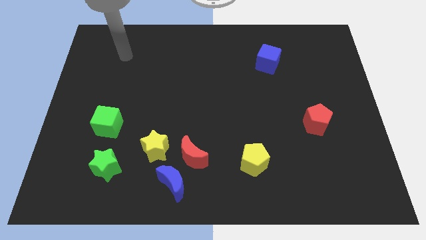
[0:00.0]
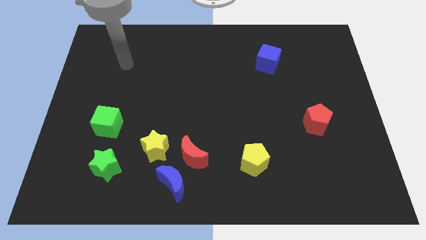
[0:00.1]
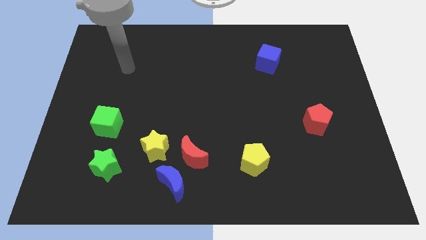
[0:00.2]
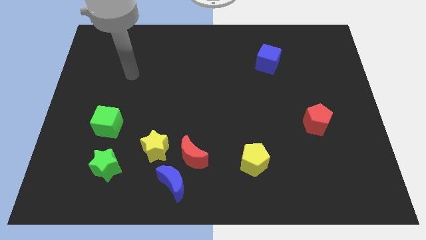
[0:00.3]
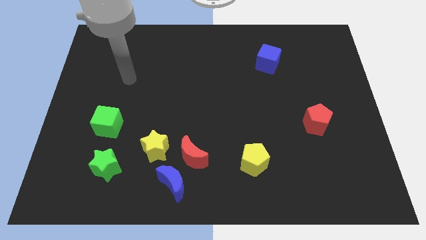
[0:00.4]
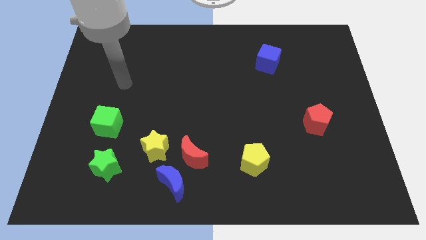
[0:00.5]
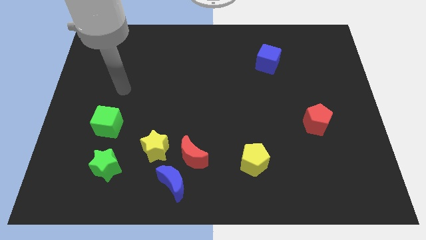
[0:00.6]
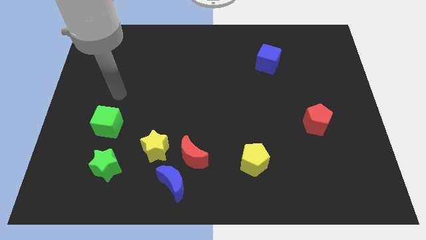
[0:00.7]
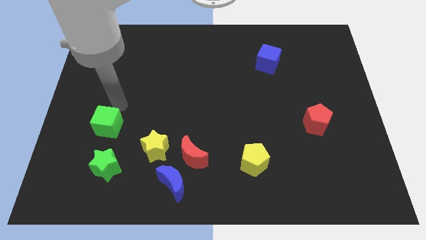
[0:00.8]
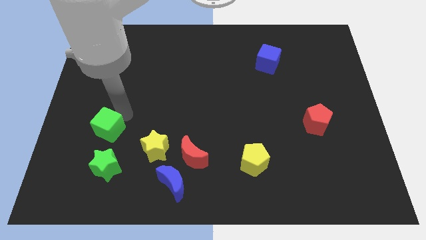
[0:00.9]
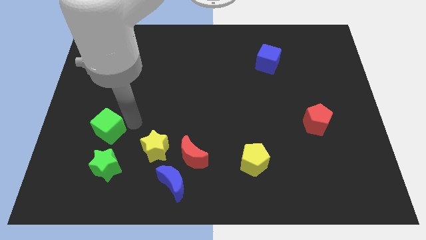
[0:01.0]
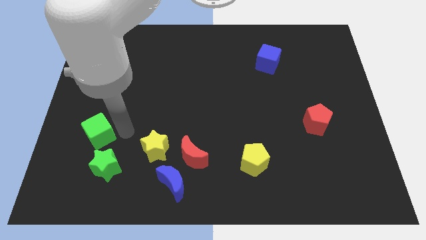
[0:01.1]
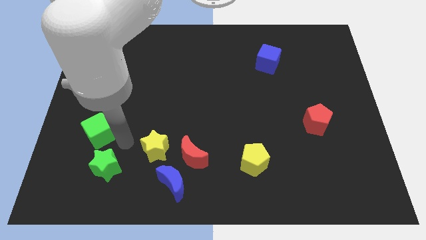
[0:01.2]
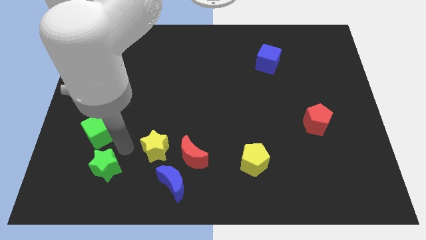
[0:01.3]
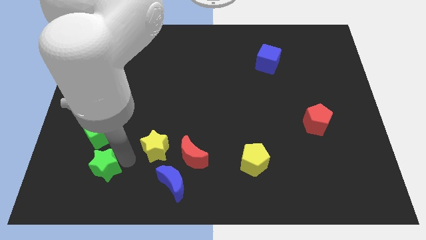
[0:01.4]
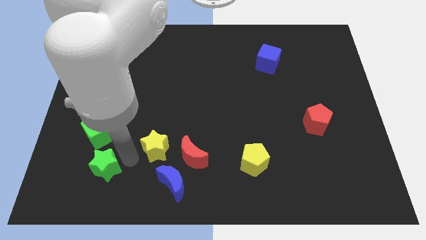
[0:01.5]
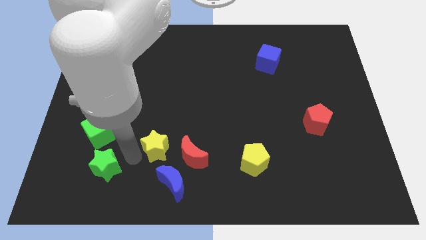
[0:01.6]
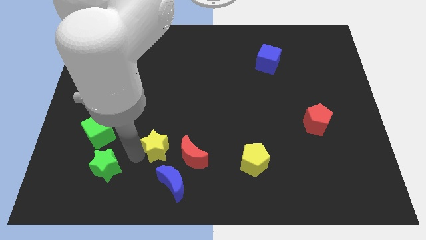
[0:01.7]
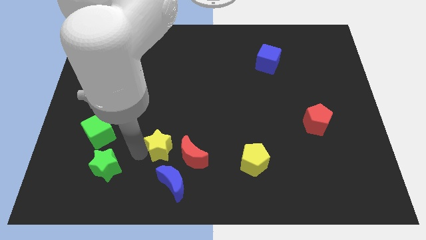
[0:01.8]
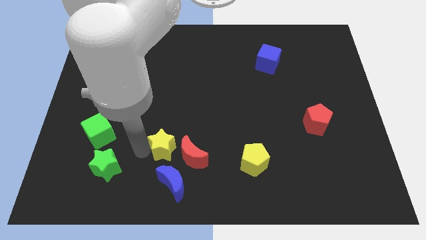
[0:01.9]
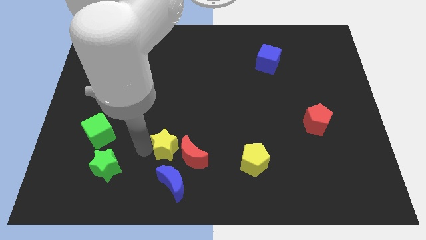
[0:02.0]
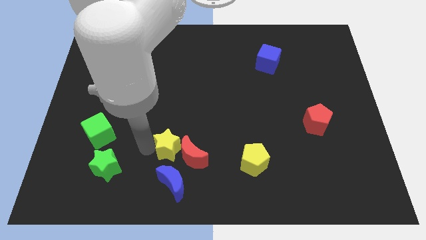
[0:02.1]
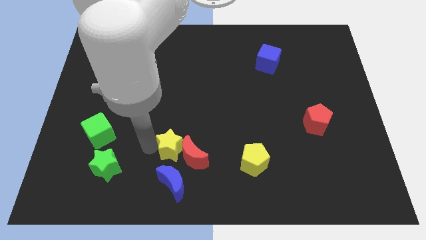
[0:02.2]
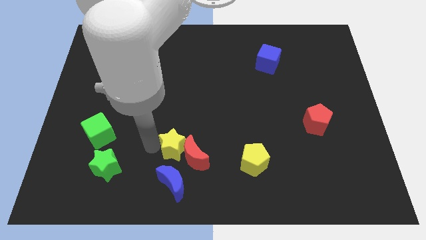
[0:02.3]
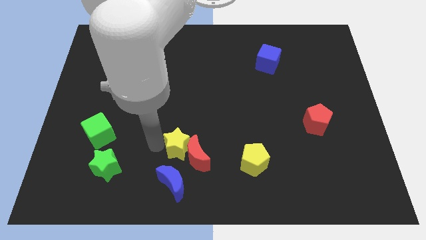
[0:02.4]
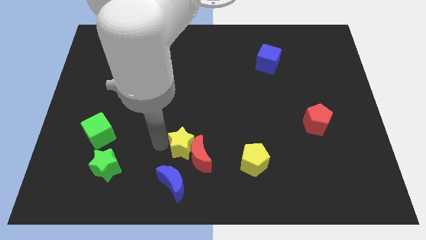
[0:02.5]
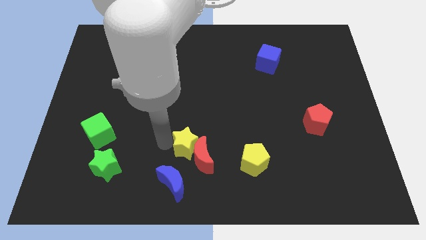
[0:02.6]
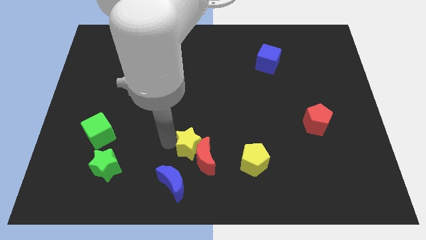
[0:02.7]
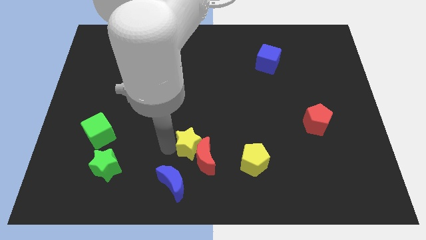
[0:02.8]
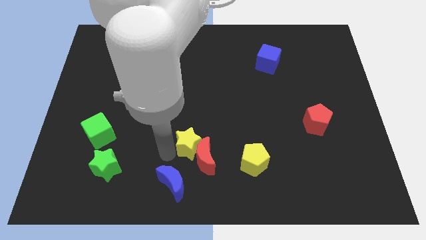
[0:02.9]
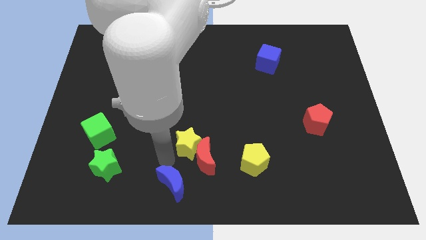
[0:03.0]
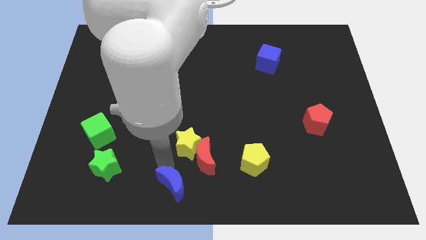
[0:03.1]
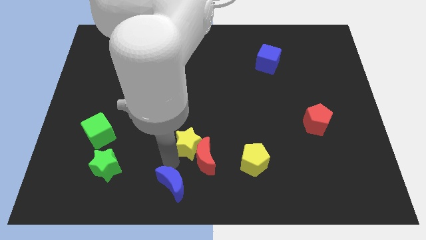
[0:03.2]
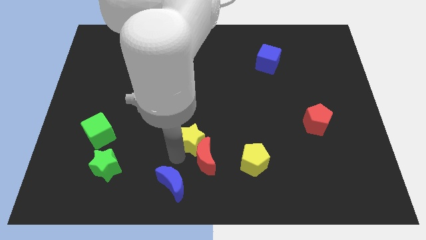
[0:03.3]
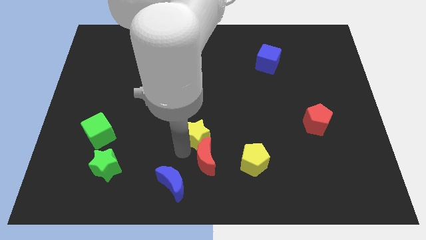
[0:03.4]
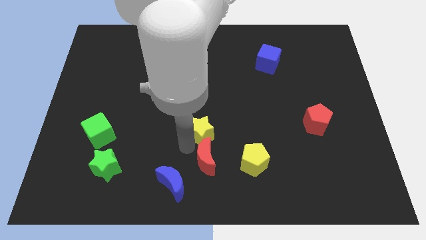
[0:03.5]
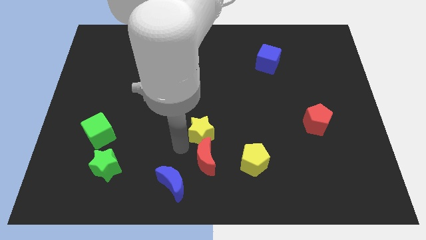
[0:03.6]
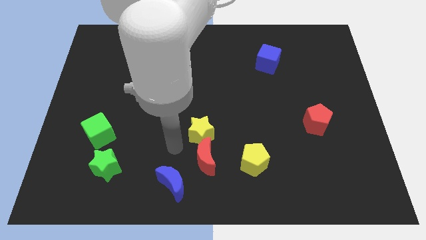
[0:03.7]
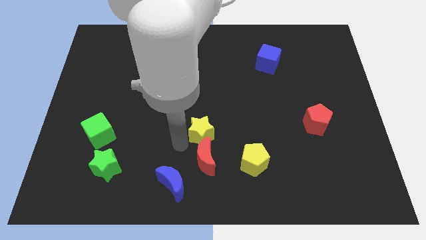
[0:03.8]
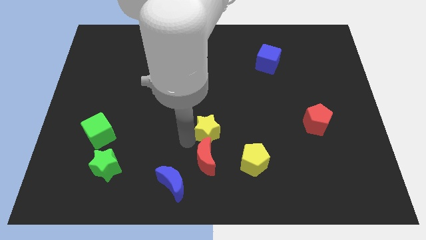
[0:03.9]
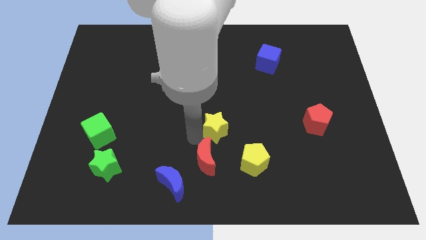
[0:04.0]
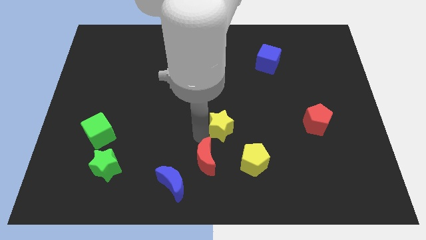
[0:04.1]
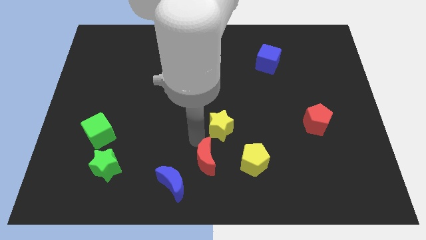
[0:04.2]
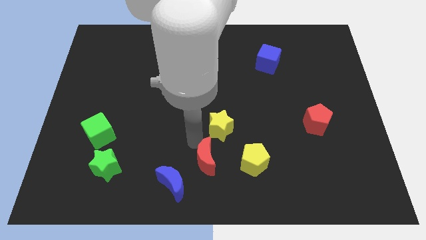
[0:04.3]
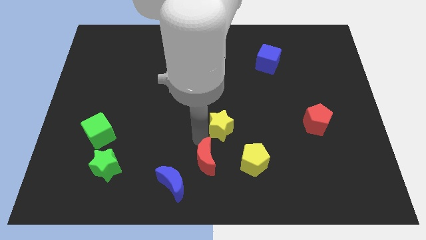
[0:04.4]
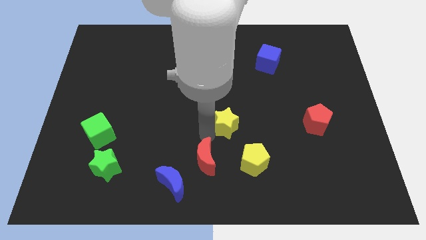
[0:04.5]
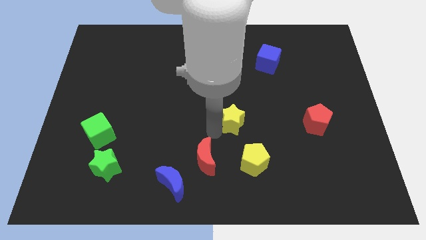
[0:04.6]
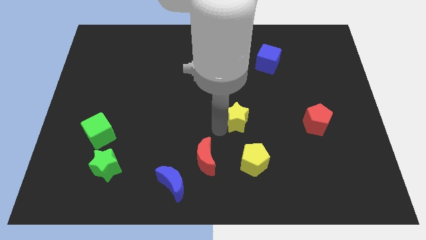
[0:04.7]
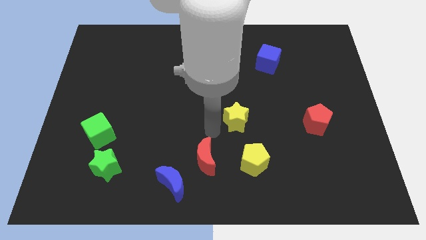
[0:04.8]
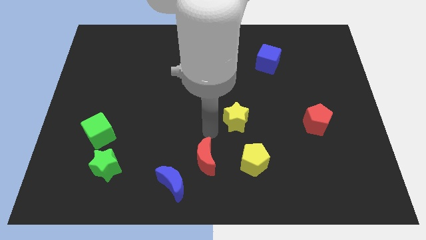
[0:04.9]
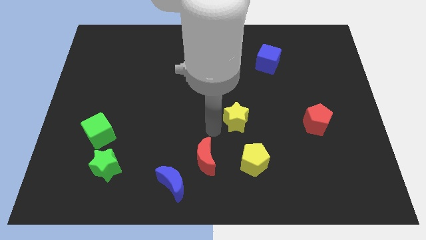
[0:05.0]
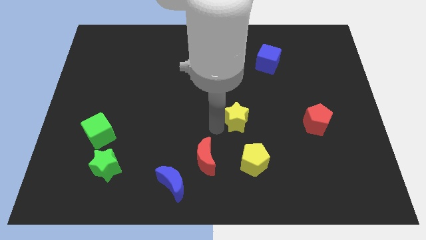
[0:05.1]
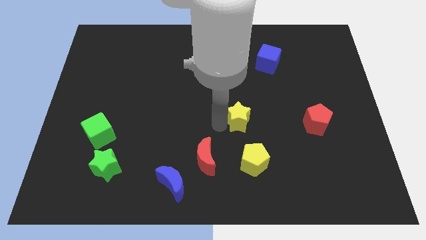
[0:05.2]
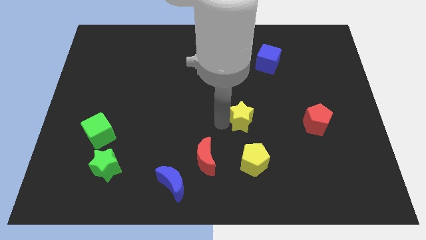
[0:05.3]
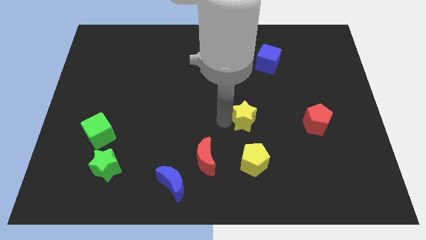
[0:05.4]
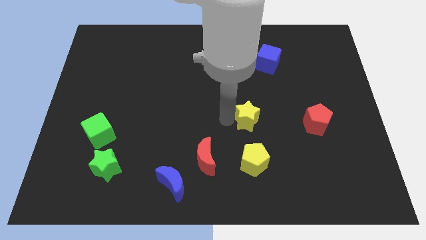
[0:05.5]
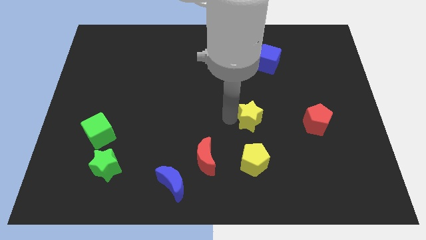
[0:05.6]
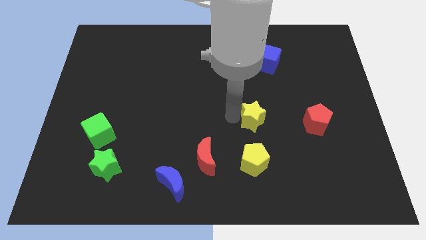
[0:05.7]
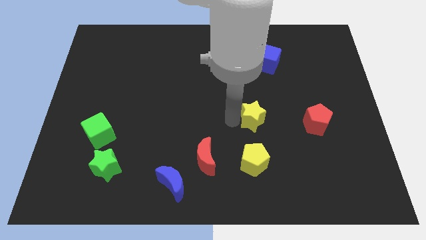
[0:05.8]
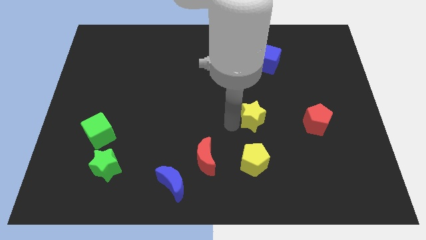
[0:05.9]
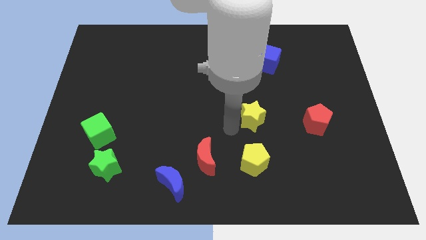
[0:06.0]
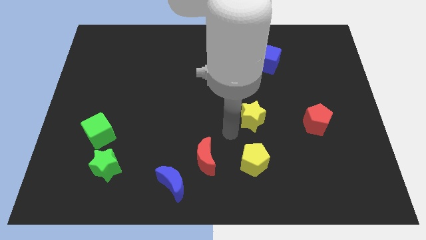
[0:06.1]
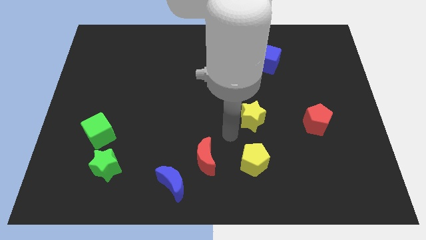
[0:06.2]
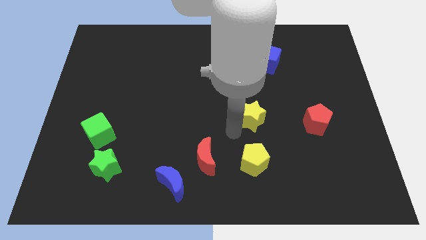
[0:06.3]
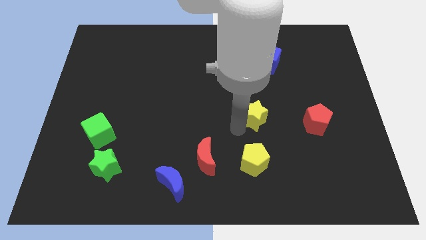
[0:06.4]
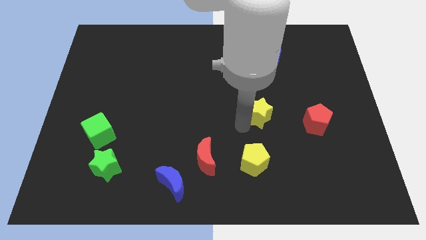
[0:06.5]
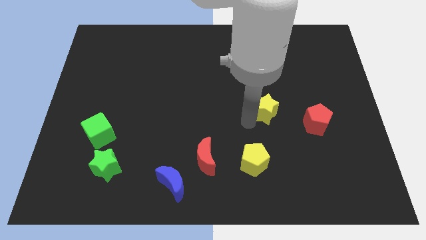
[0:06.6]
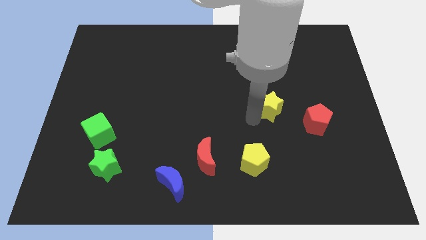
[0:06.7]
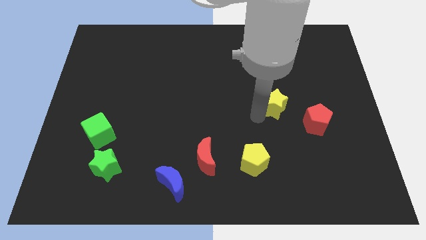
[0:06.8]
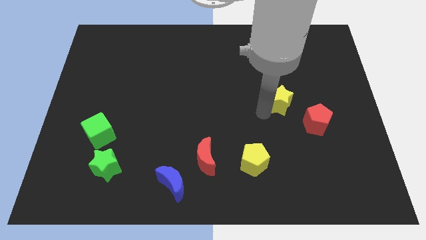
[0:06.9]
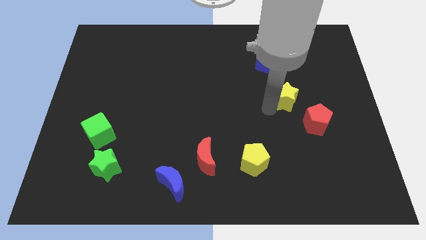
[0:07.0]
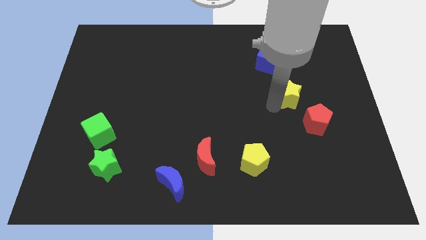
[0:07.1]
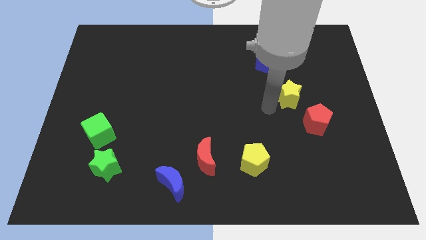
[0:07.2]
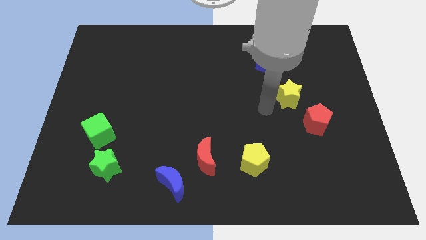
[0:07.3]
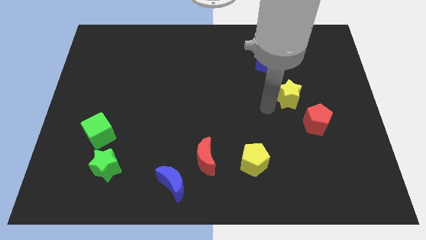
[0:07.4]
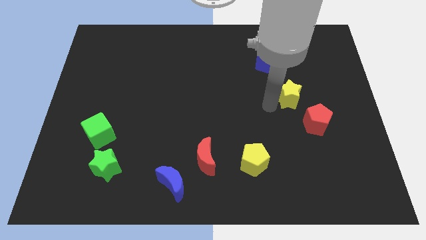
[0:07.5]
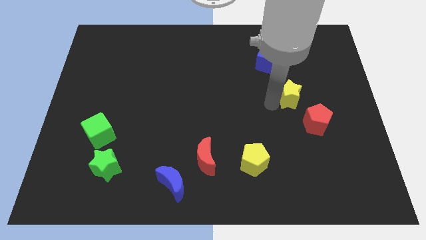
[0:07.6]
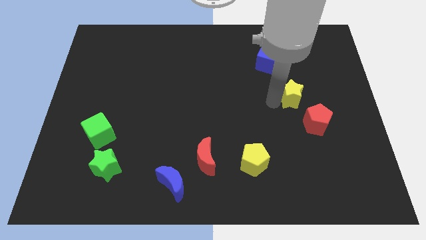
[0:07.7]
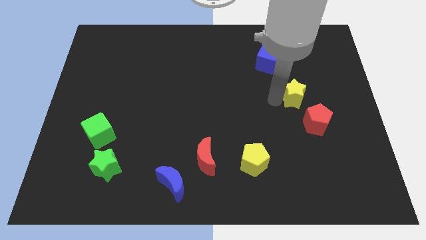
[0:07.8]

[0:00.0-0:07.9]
push the yellow star to the top side of the red pentagon
